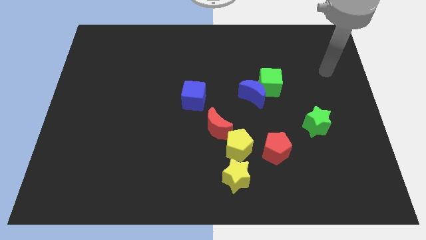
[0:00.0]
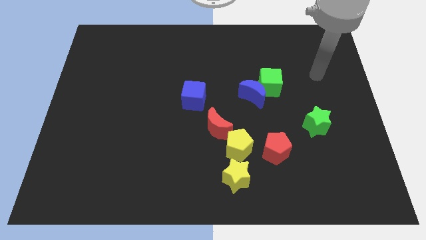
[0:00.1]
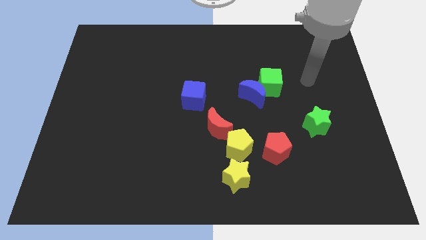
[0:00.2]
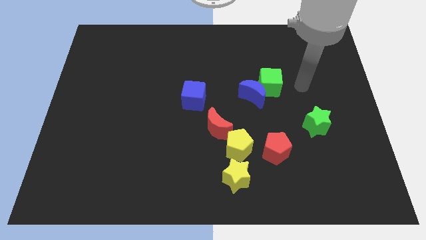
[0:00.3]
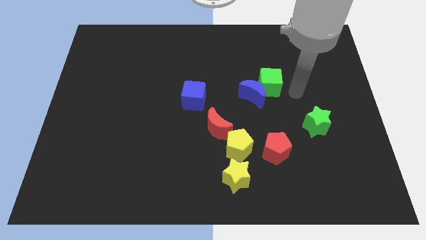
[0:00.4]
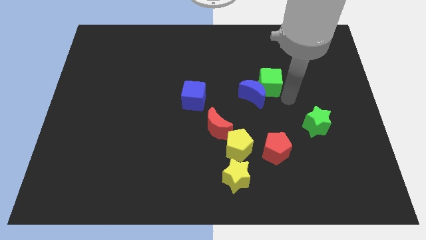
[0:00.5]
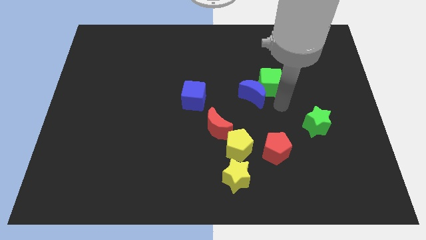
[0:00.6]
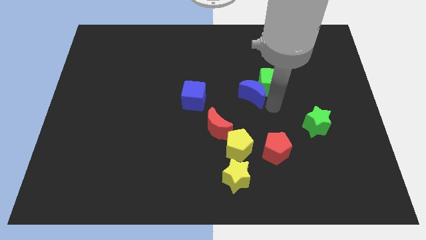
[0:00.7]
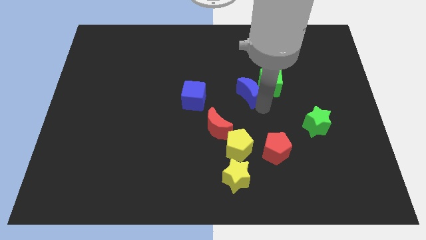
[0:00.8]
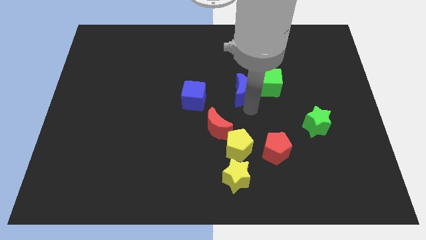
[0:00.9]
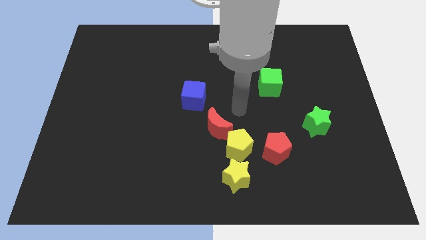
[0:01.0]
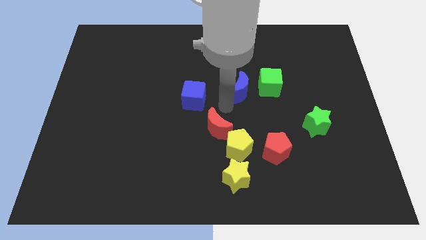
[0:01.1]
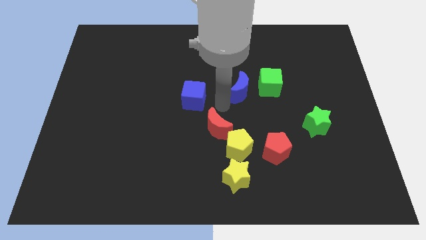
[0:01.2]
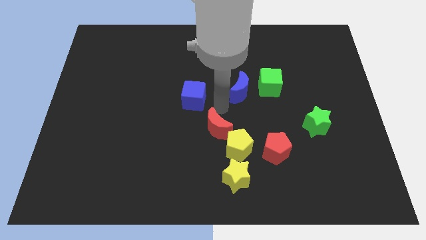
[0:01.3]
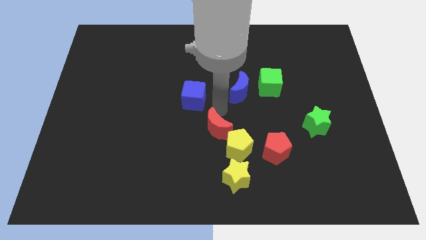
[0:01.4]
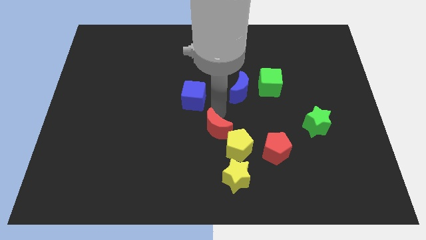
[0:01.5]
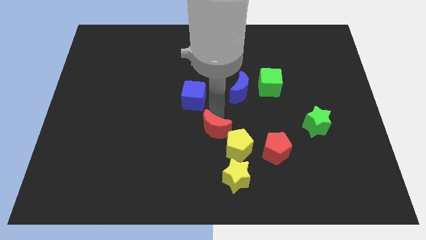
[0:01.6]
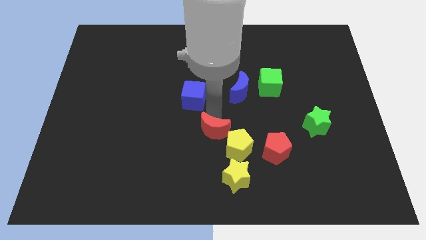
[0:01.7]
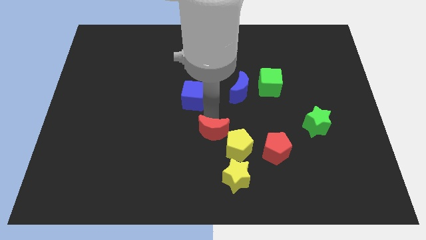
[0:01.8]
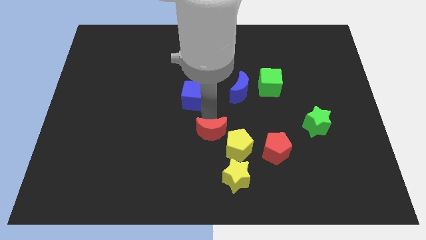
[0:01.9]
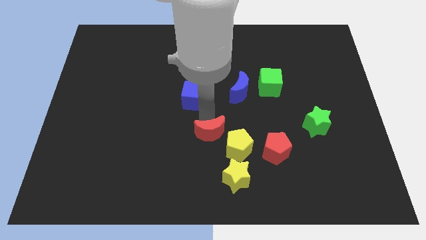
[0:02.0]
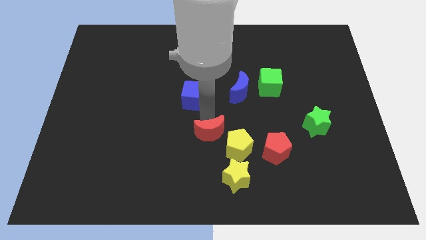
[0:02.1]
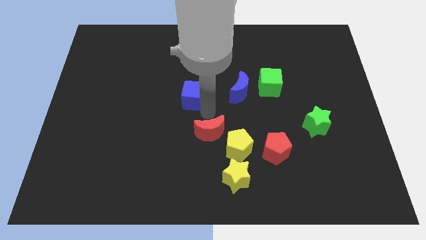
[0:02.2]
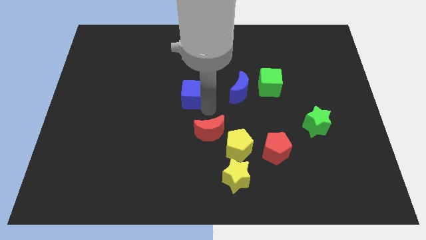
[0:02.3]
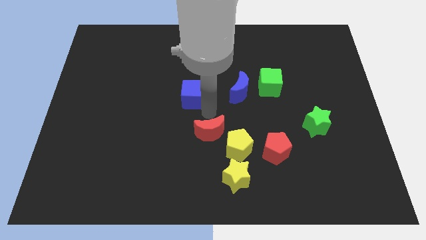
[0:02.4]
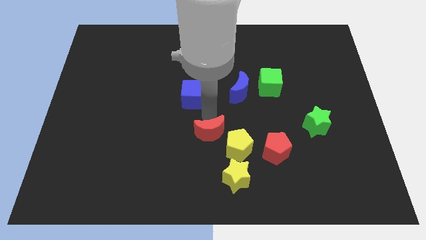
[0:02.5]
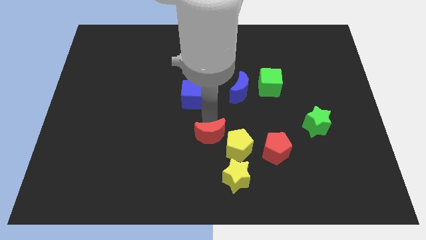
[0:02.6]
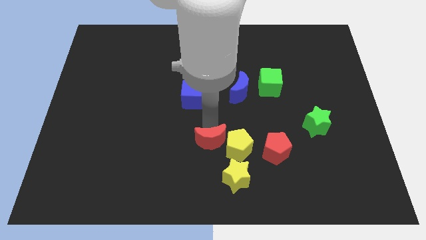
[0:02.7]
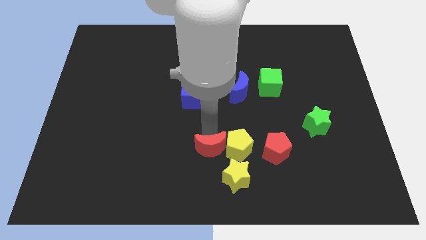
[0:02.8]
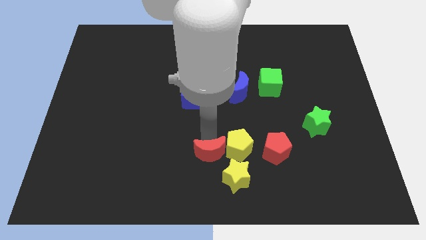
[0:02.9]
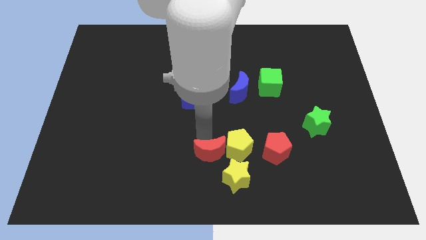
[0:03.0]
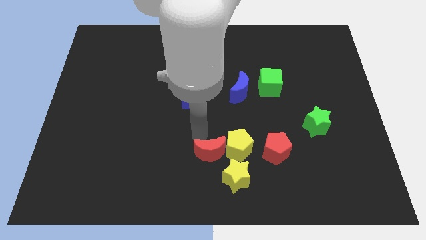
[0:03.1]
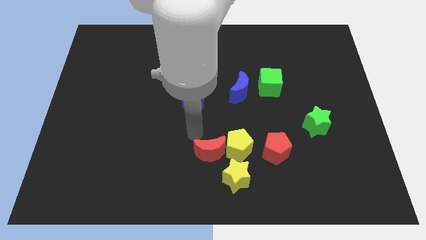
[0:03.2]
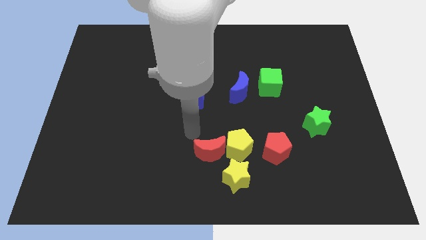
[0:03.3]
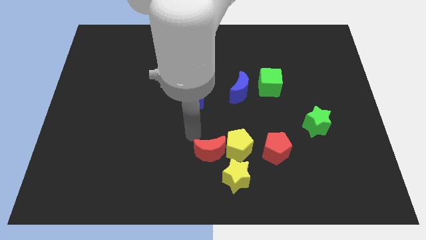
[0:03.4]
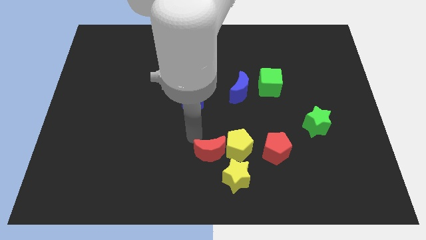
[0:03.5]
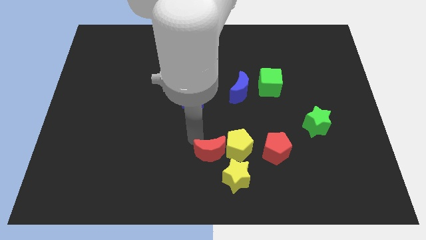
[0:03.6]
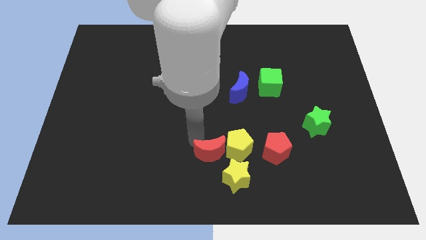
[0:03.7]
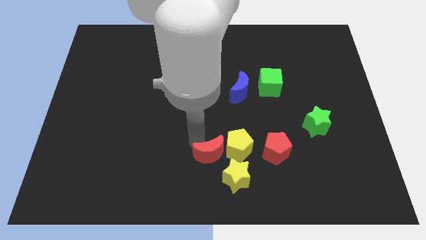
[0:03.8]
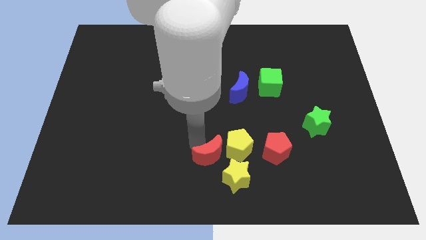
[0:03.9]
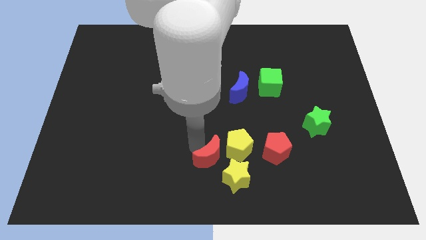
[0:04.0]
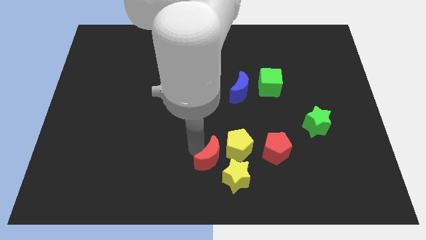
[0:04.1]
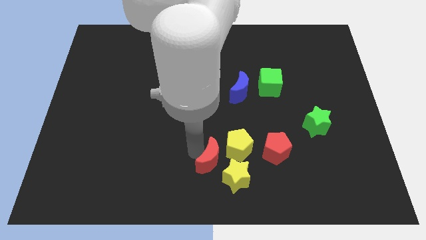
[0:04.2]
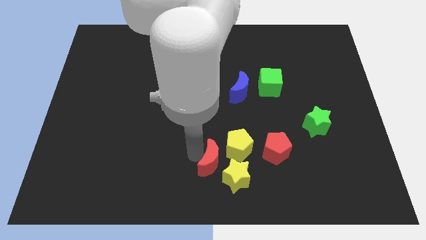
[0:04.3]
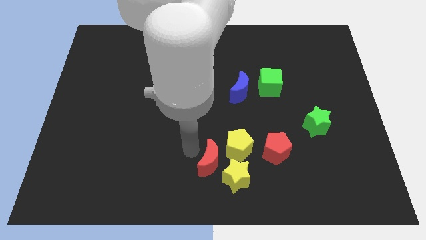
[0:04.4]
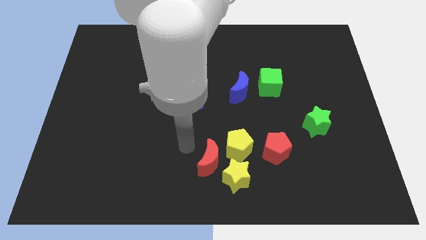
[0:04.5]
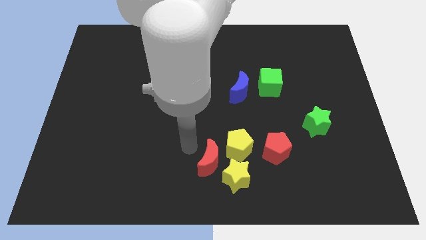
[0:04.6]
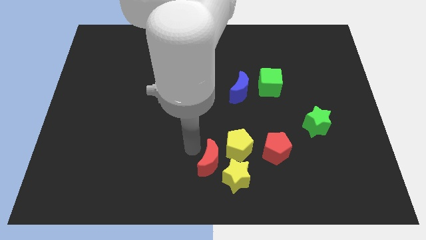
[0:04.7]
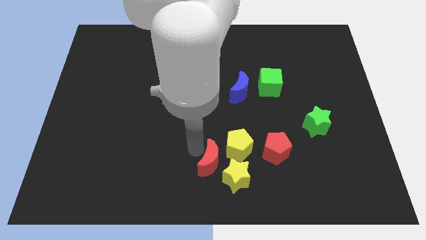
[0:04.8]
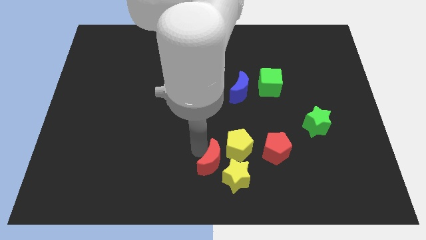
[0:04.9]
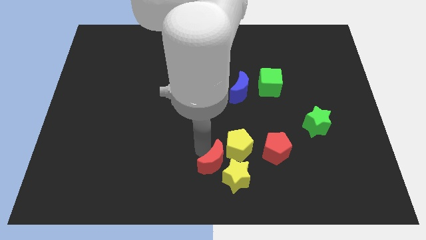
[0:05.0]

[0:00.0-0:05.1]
push the red moon towards the yellow star

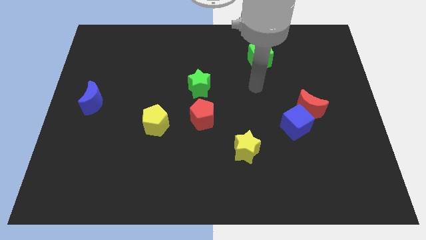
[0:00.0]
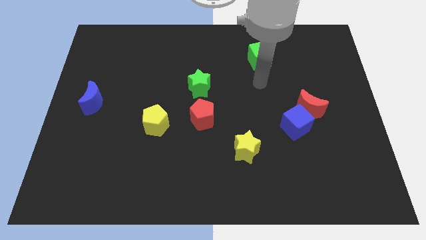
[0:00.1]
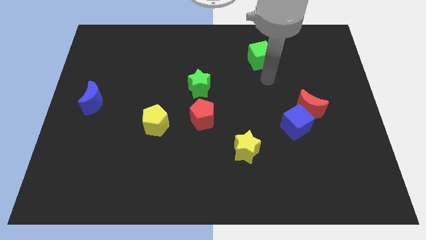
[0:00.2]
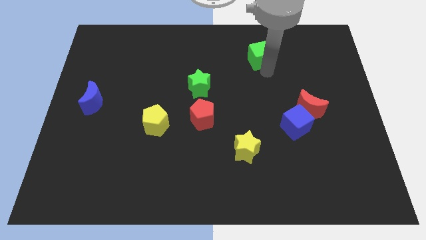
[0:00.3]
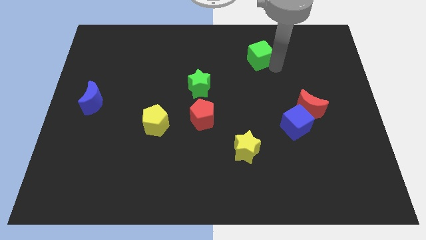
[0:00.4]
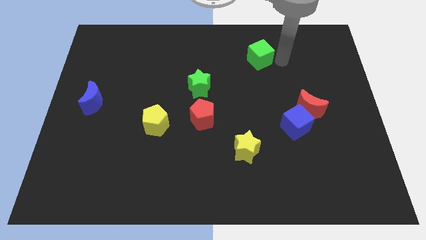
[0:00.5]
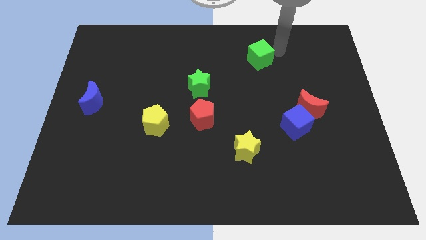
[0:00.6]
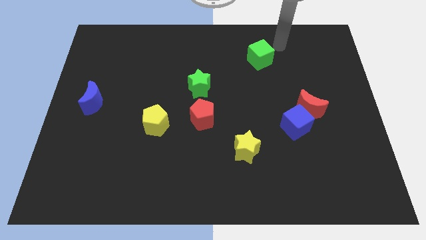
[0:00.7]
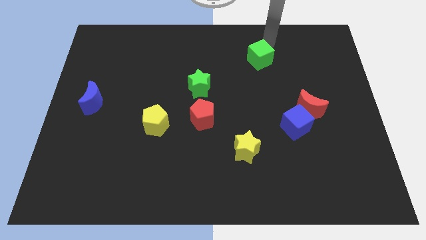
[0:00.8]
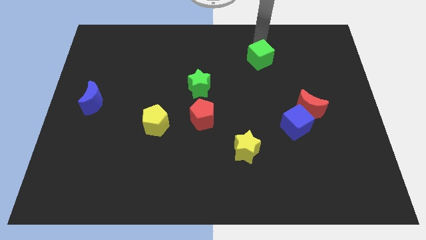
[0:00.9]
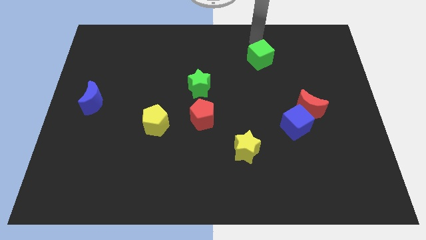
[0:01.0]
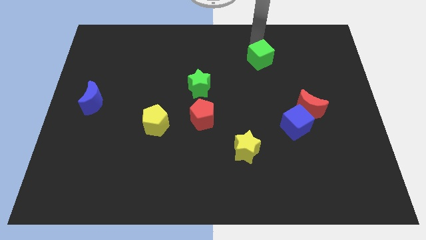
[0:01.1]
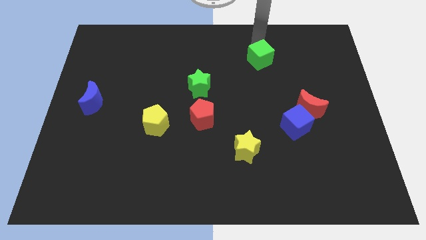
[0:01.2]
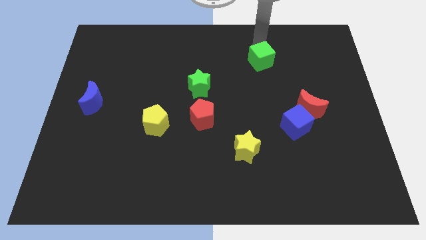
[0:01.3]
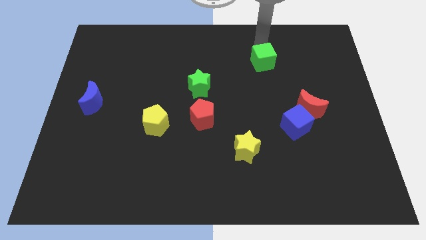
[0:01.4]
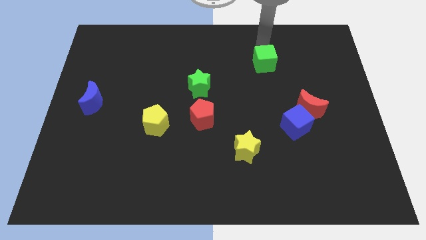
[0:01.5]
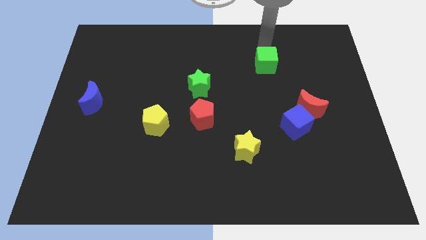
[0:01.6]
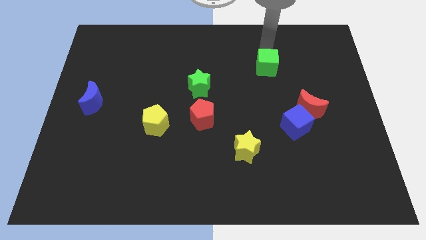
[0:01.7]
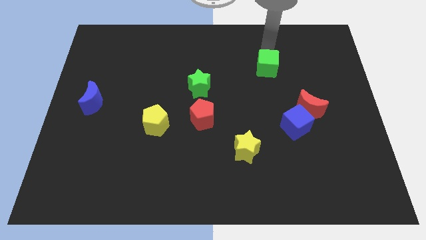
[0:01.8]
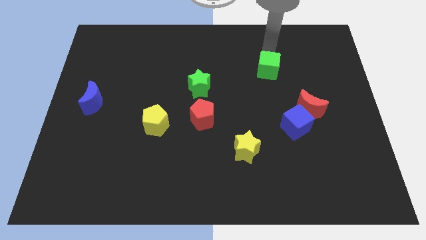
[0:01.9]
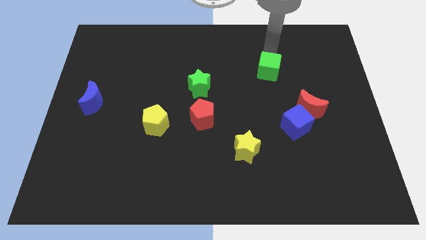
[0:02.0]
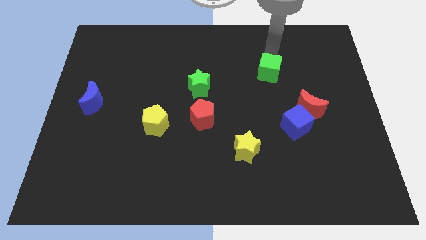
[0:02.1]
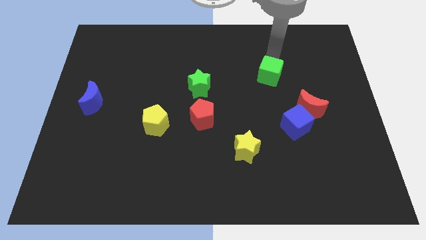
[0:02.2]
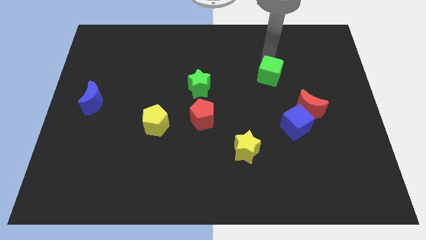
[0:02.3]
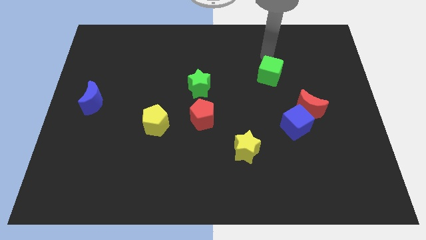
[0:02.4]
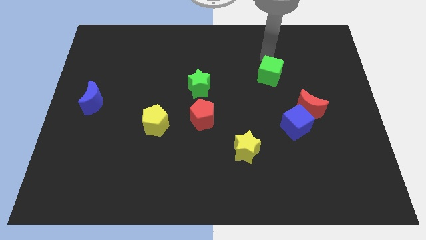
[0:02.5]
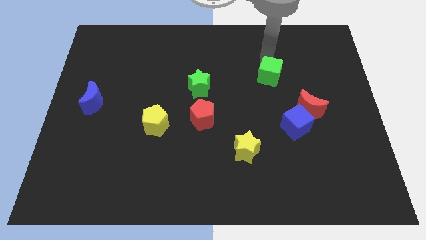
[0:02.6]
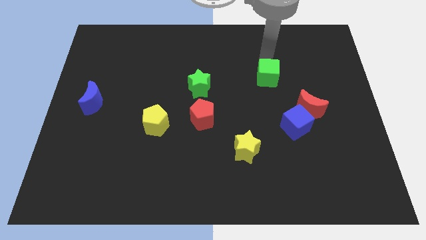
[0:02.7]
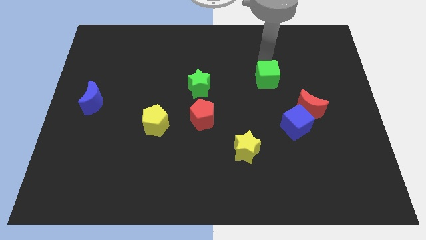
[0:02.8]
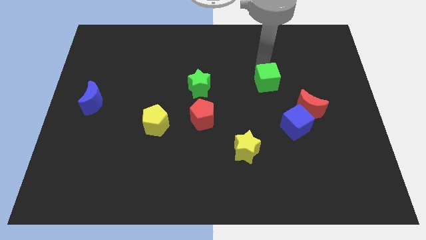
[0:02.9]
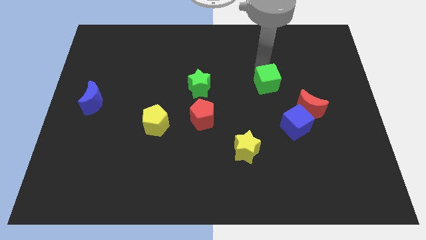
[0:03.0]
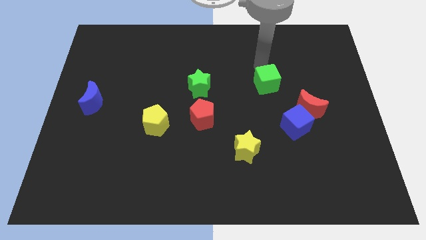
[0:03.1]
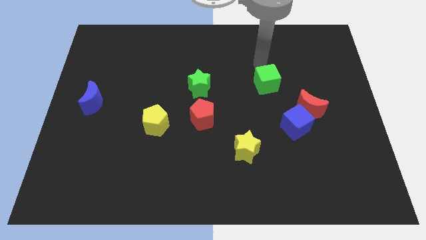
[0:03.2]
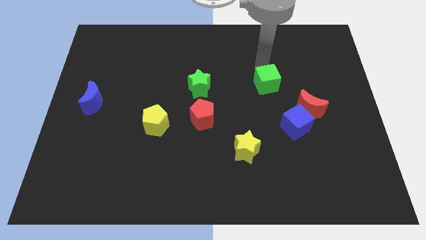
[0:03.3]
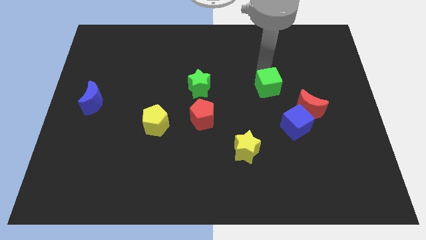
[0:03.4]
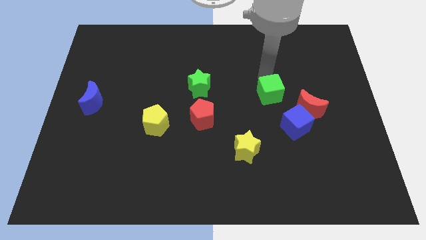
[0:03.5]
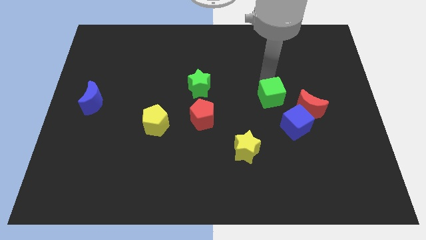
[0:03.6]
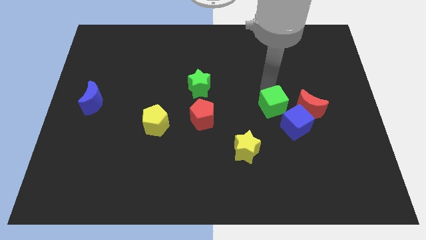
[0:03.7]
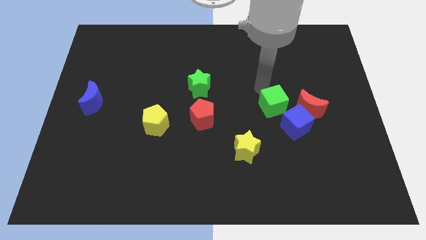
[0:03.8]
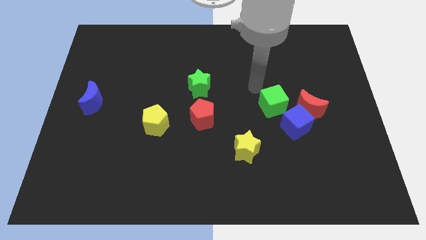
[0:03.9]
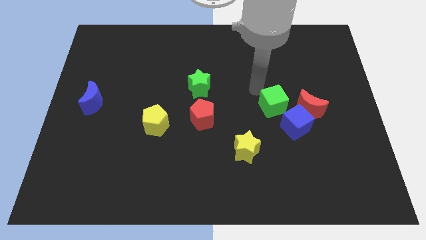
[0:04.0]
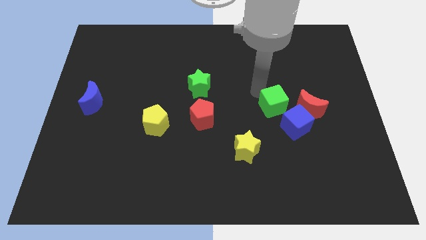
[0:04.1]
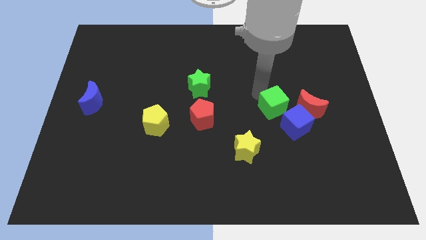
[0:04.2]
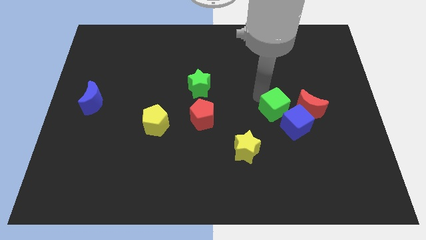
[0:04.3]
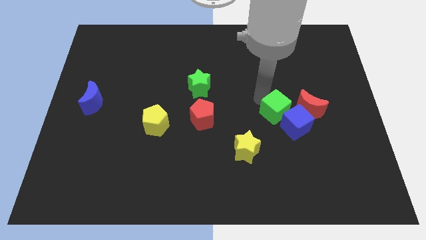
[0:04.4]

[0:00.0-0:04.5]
slide the green cube next to the blue cube
